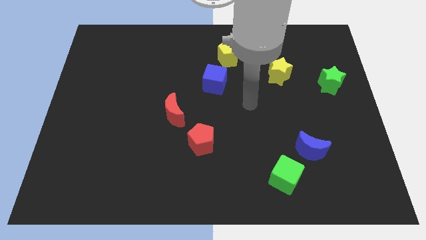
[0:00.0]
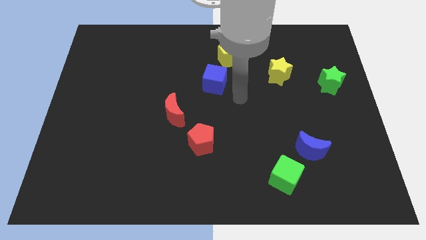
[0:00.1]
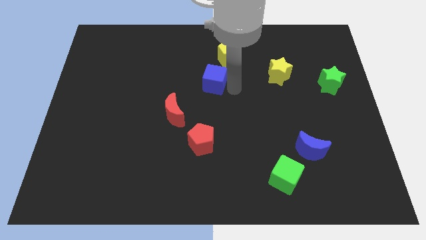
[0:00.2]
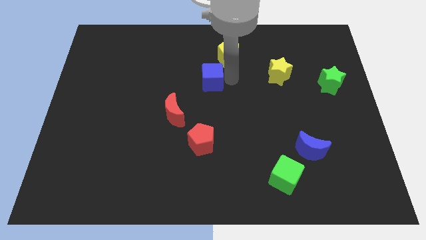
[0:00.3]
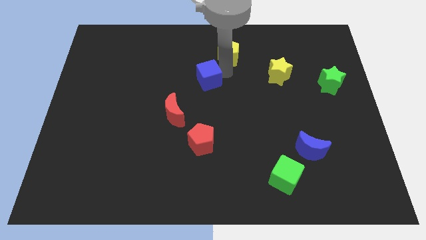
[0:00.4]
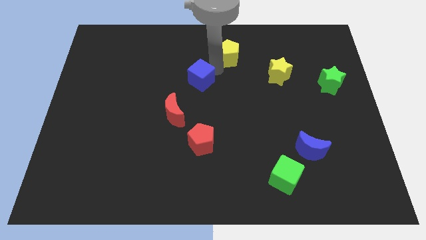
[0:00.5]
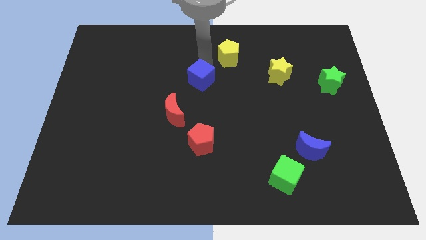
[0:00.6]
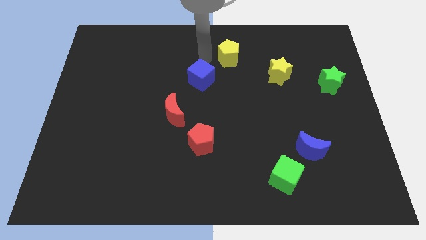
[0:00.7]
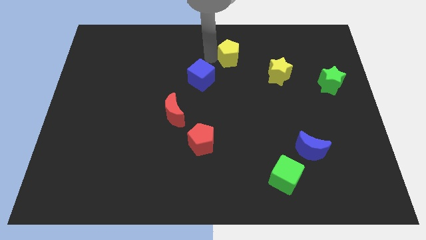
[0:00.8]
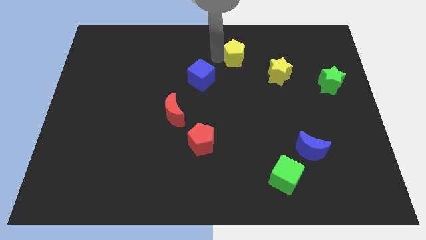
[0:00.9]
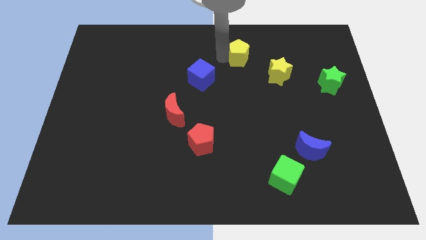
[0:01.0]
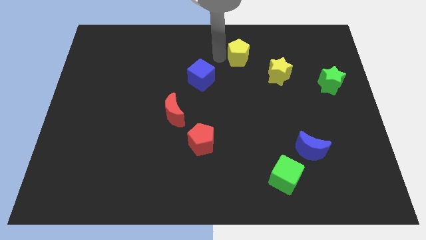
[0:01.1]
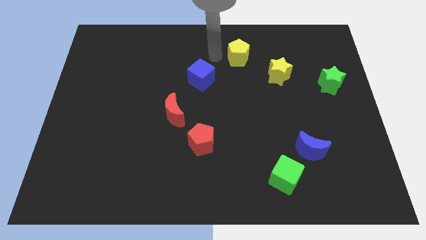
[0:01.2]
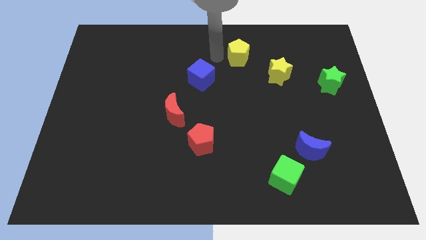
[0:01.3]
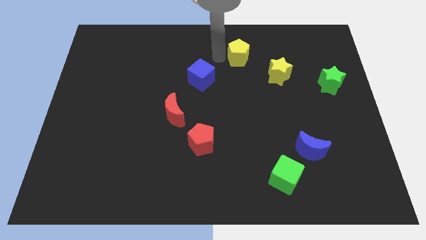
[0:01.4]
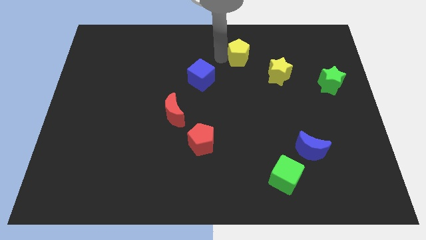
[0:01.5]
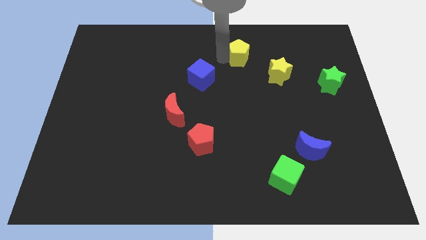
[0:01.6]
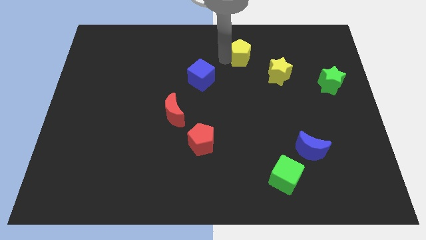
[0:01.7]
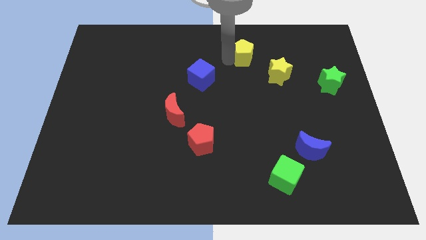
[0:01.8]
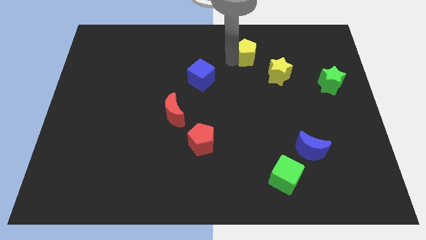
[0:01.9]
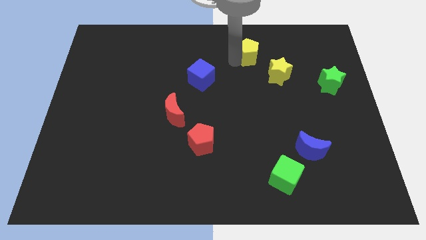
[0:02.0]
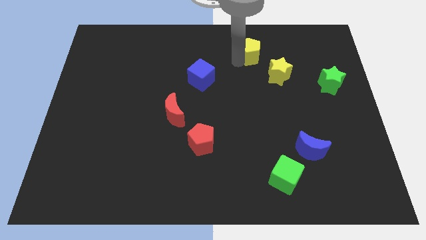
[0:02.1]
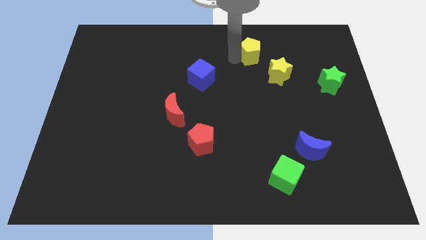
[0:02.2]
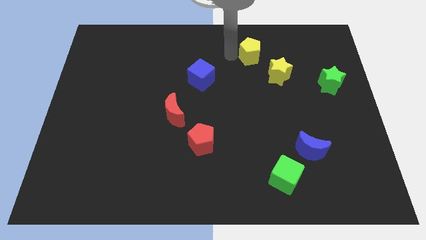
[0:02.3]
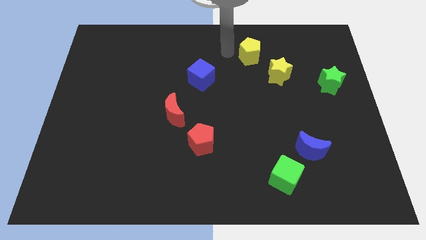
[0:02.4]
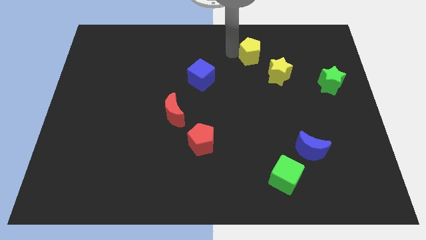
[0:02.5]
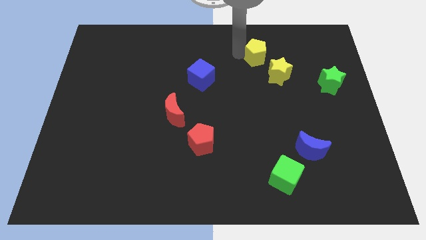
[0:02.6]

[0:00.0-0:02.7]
slide the yellow pentagon to the right a bit

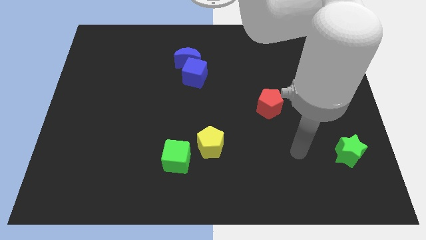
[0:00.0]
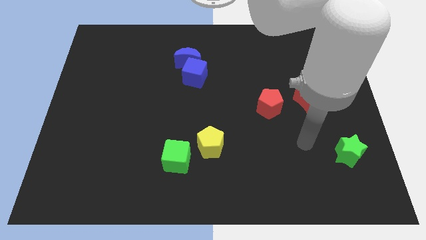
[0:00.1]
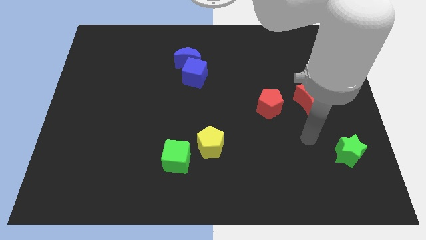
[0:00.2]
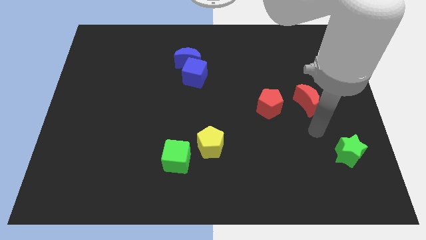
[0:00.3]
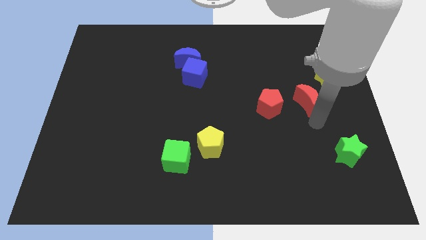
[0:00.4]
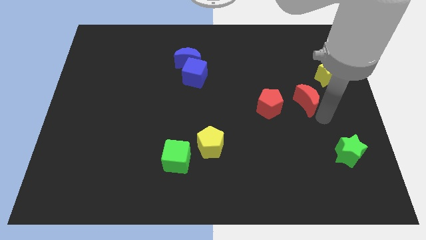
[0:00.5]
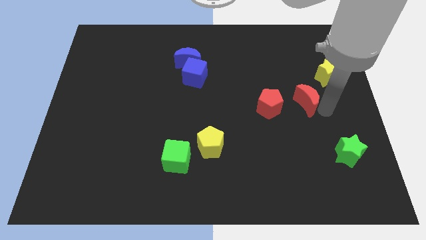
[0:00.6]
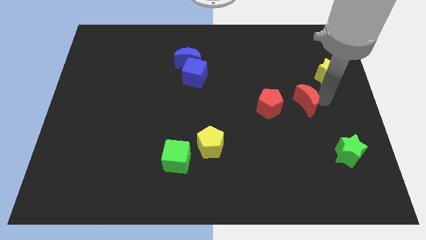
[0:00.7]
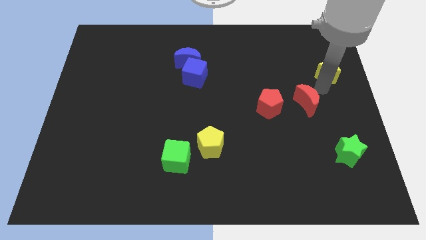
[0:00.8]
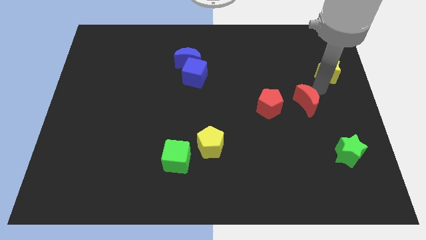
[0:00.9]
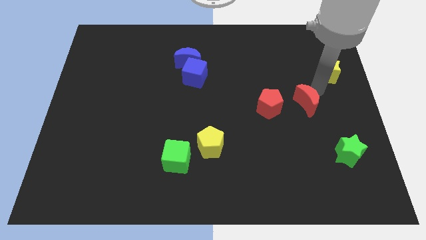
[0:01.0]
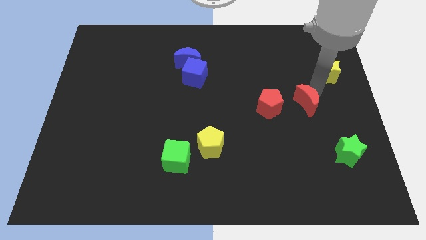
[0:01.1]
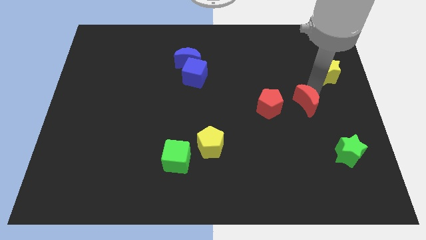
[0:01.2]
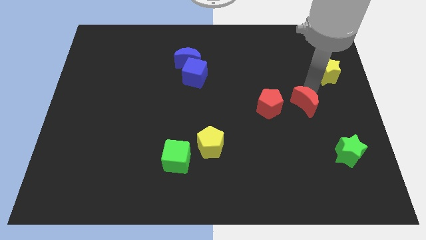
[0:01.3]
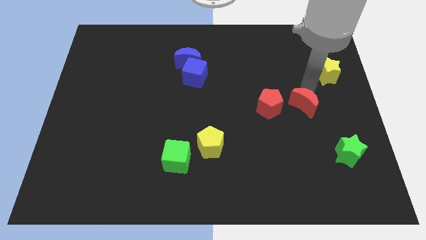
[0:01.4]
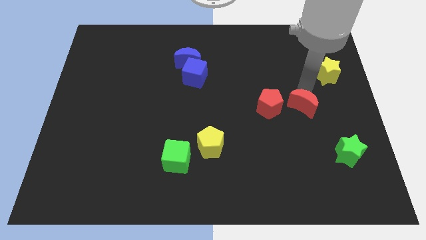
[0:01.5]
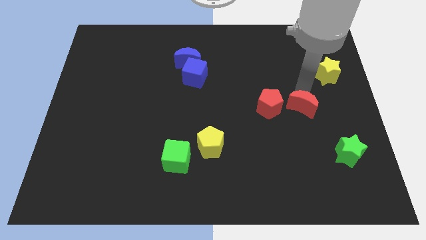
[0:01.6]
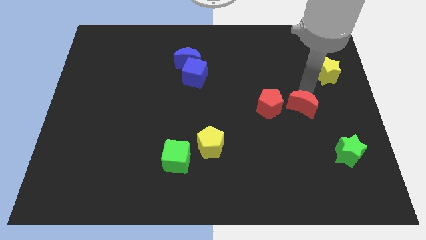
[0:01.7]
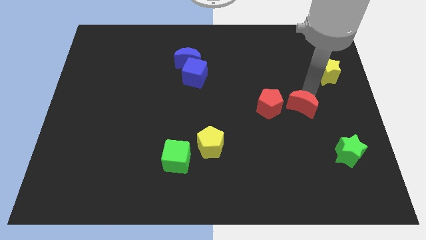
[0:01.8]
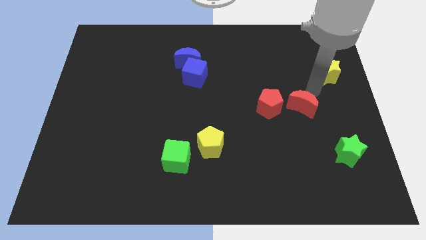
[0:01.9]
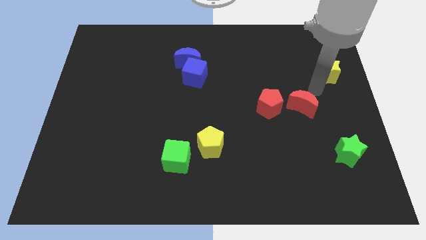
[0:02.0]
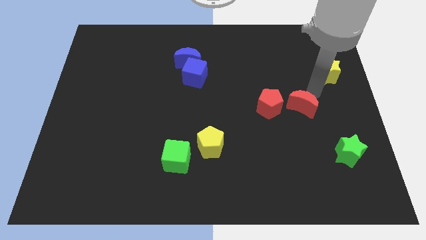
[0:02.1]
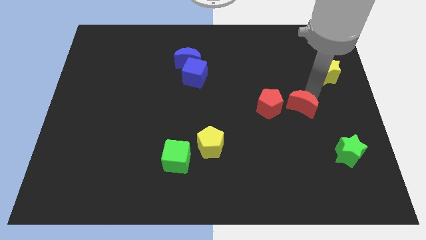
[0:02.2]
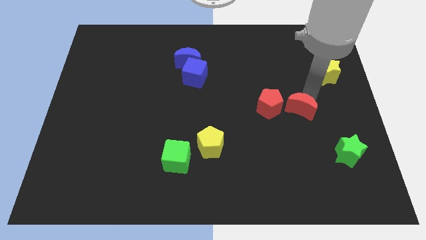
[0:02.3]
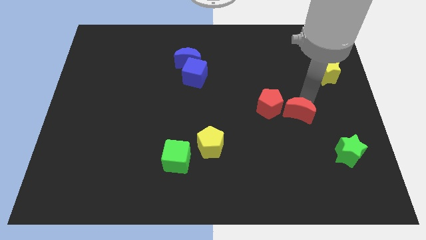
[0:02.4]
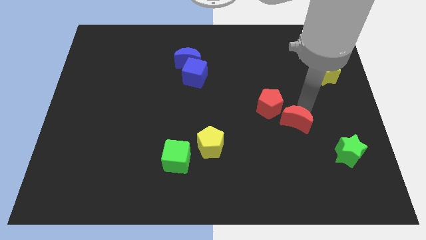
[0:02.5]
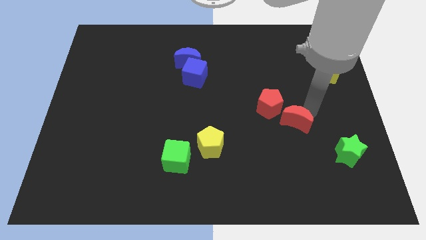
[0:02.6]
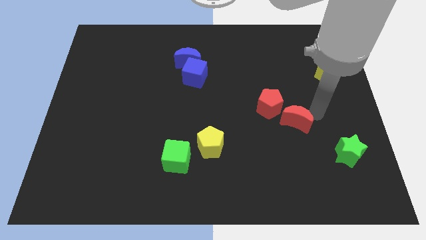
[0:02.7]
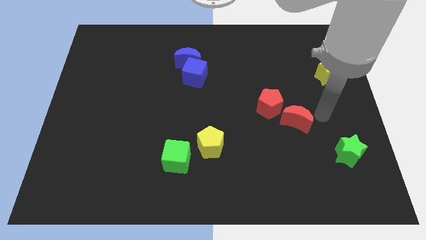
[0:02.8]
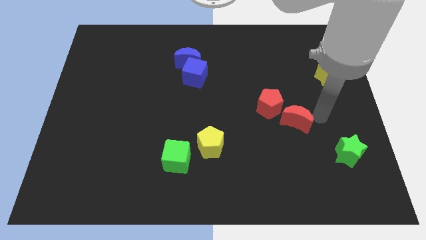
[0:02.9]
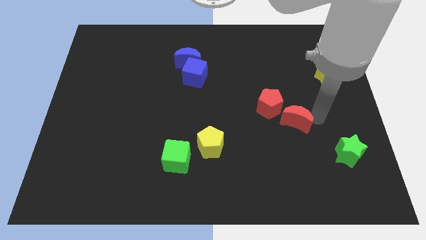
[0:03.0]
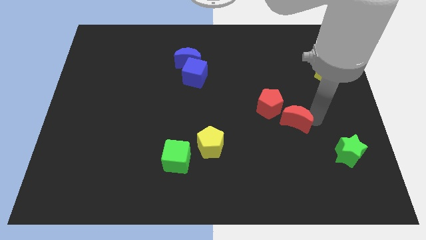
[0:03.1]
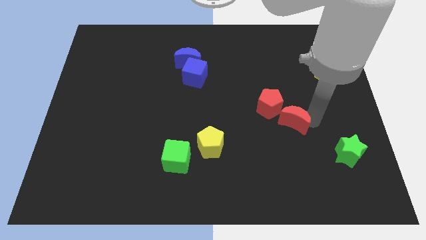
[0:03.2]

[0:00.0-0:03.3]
slide the red moon slightly downwards and then left

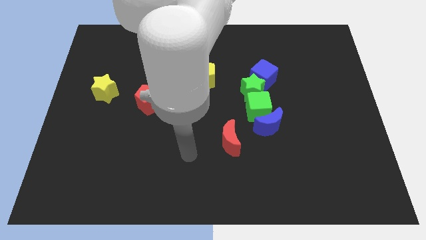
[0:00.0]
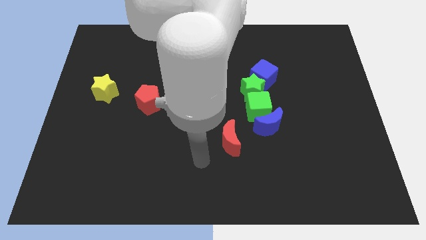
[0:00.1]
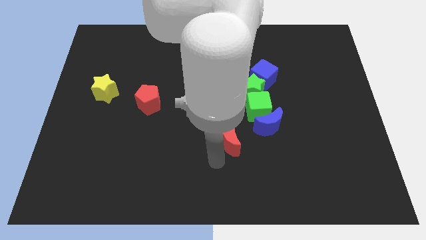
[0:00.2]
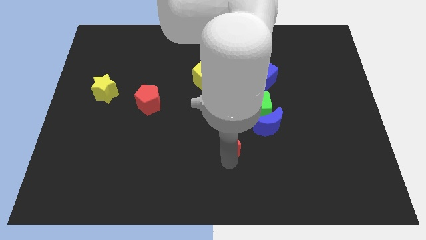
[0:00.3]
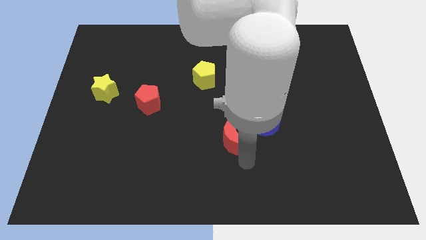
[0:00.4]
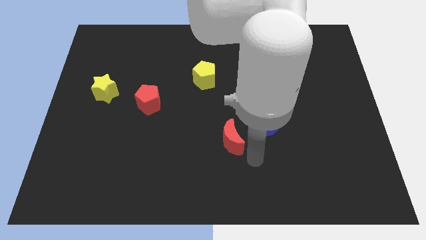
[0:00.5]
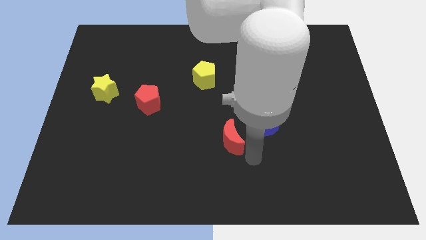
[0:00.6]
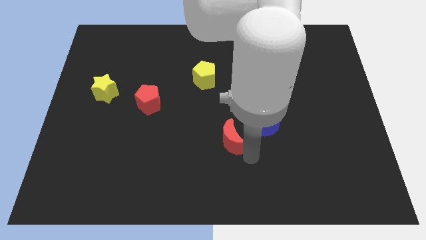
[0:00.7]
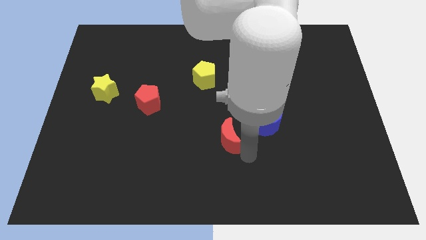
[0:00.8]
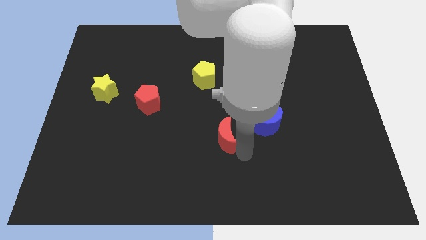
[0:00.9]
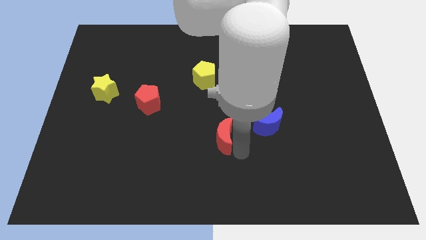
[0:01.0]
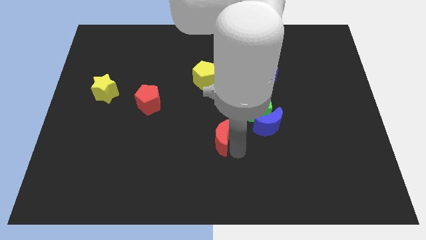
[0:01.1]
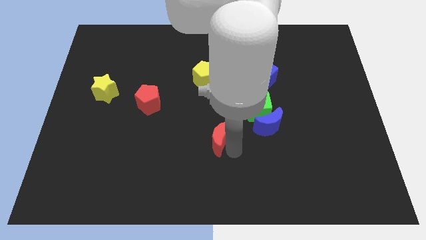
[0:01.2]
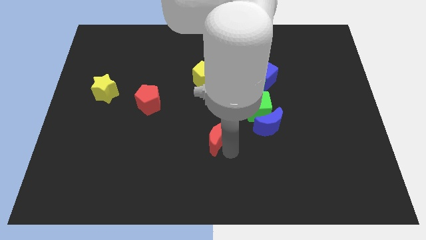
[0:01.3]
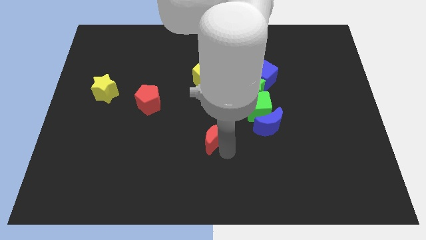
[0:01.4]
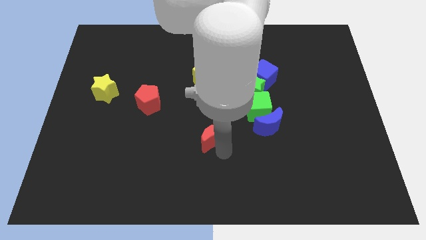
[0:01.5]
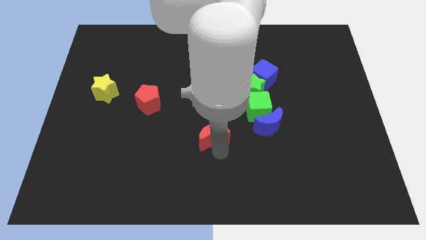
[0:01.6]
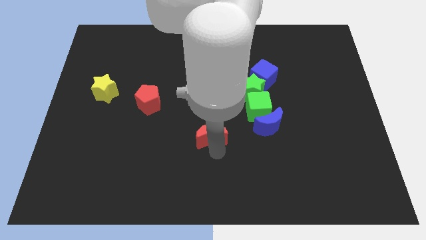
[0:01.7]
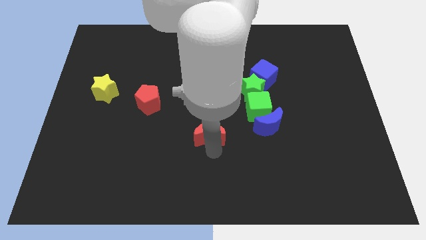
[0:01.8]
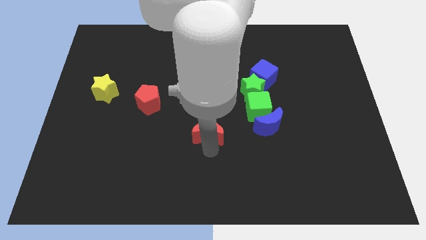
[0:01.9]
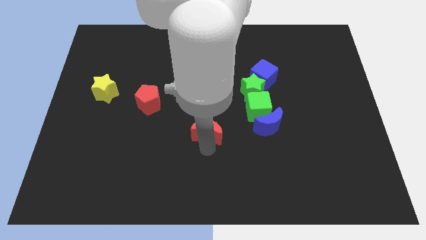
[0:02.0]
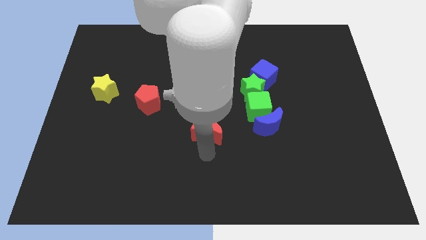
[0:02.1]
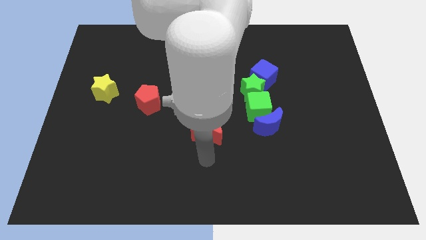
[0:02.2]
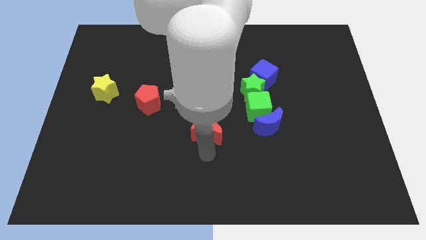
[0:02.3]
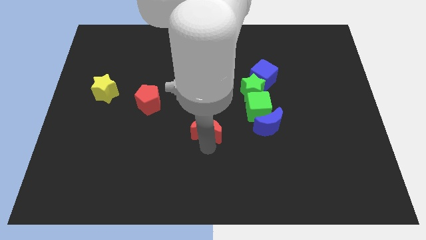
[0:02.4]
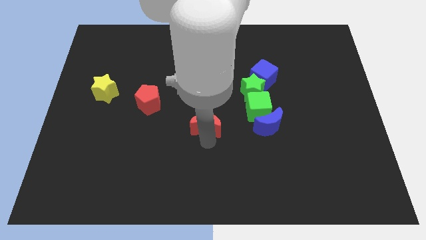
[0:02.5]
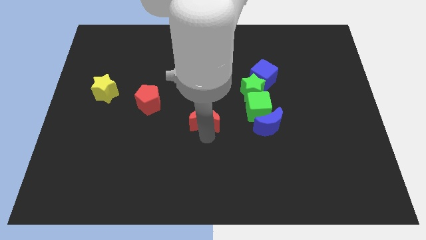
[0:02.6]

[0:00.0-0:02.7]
slightly move the red moon upwards and then left
